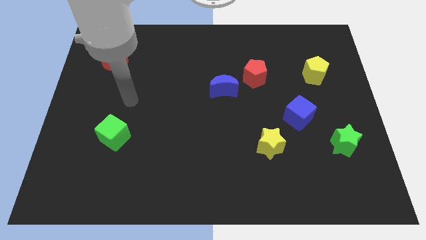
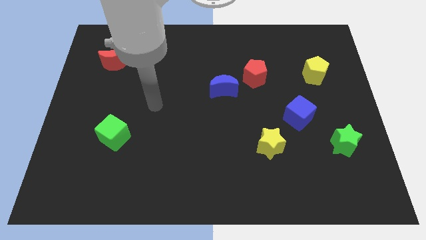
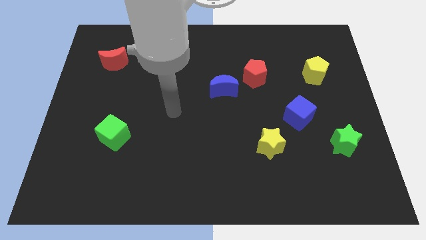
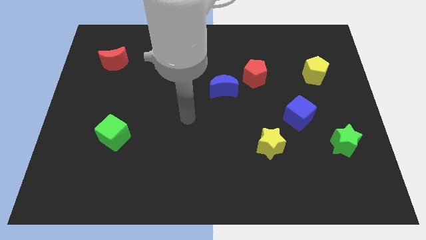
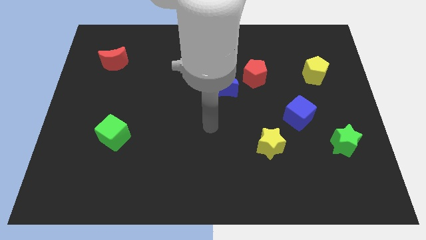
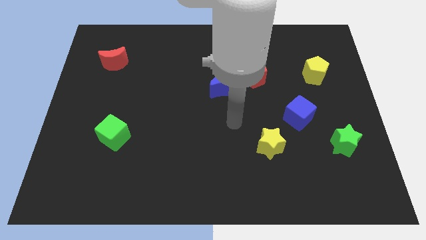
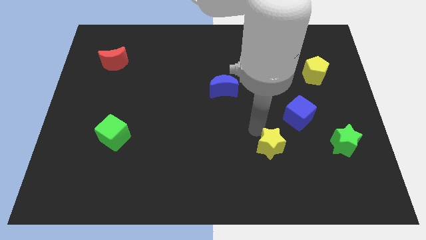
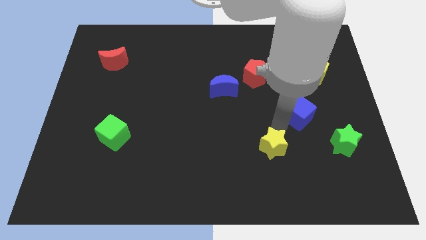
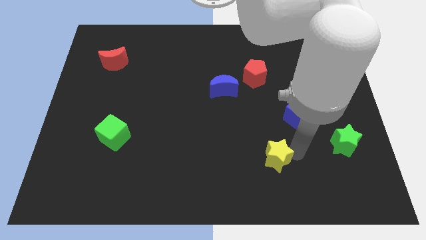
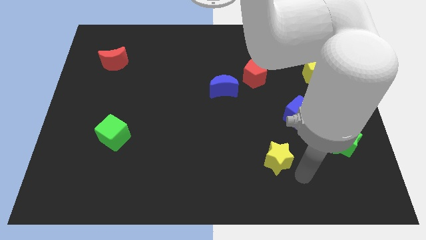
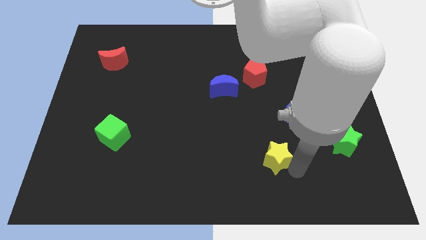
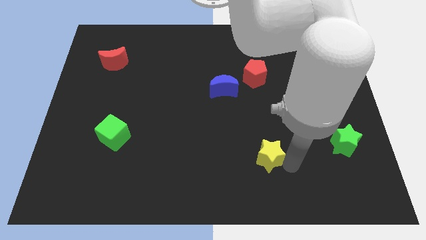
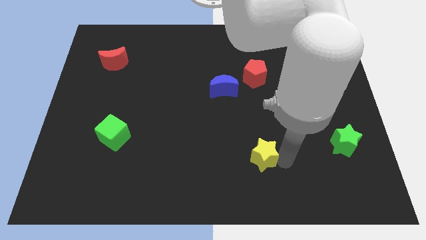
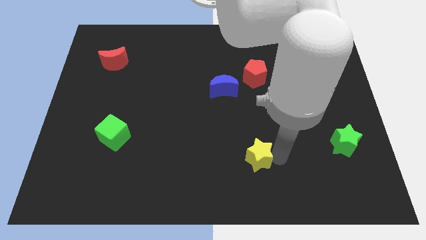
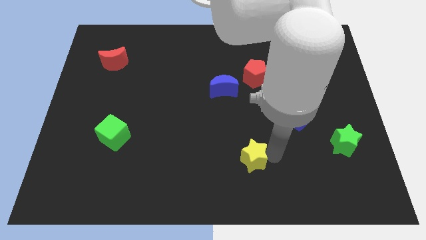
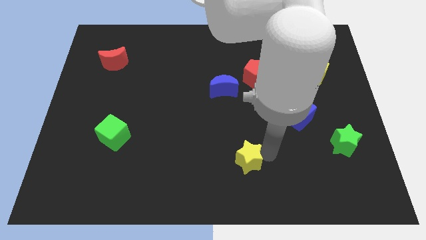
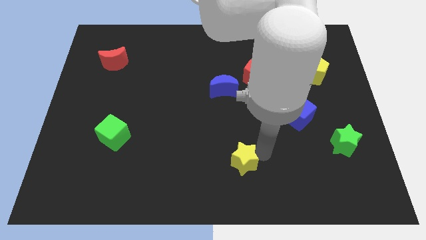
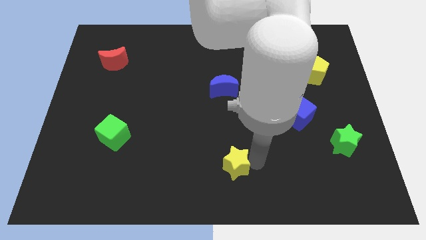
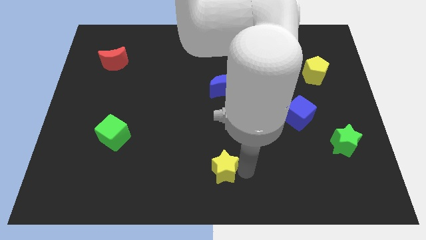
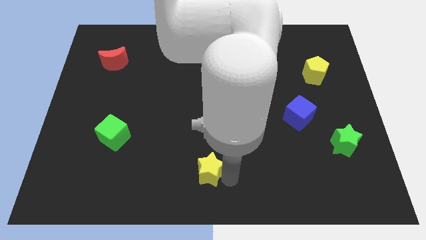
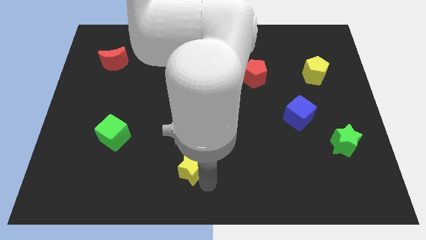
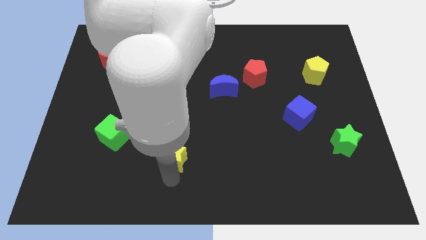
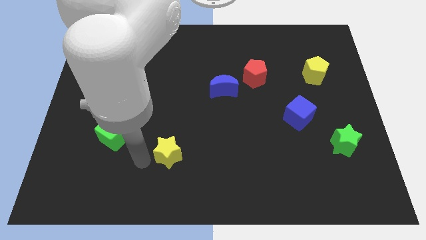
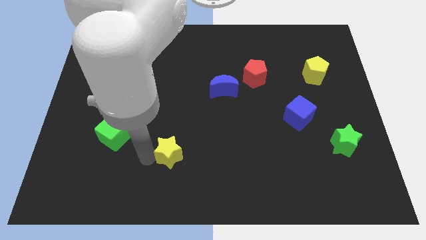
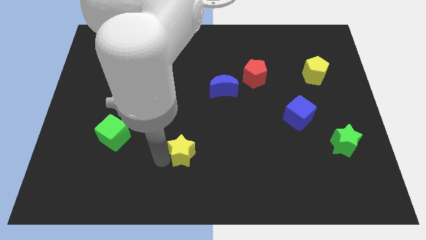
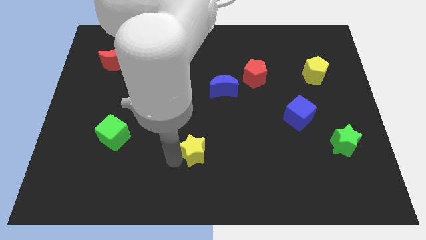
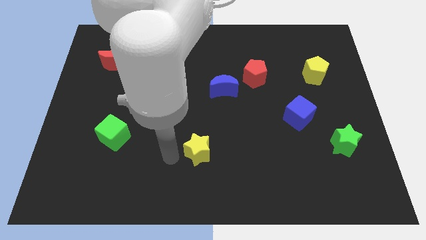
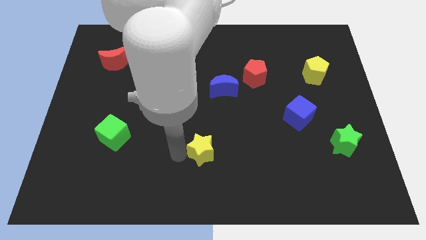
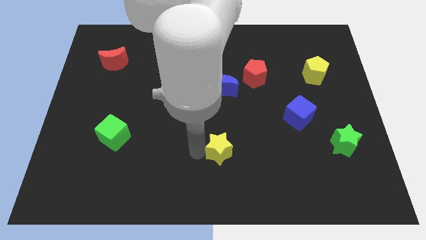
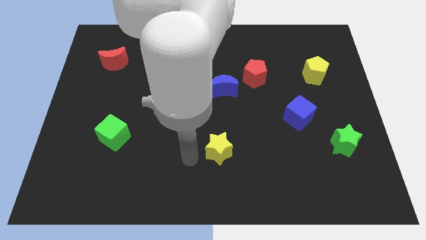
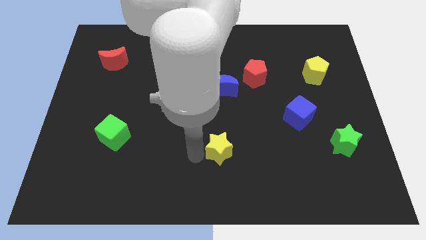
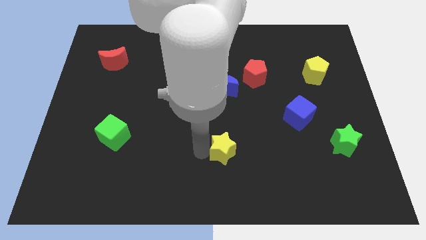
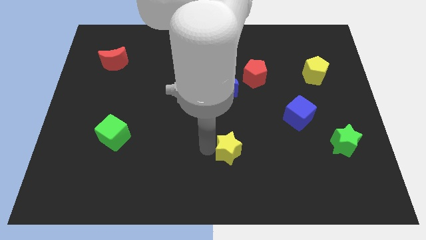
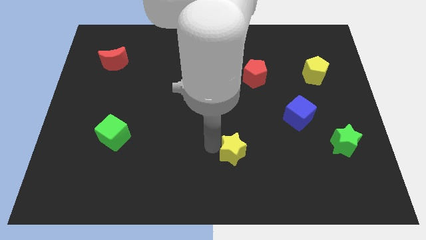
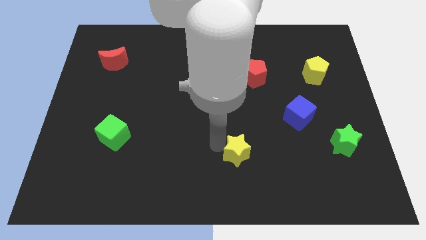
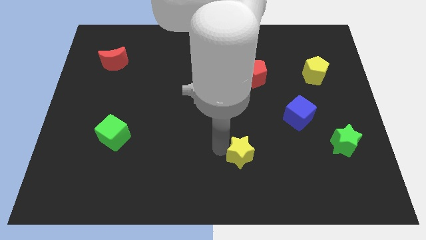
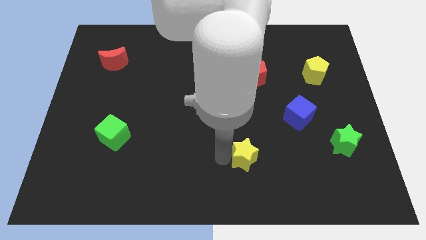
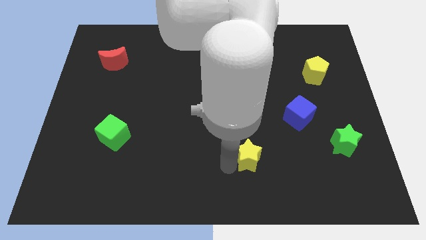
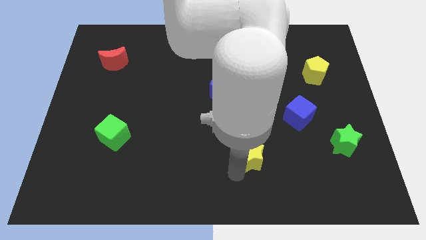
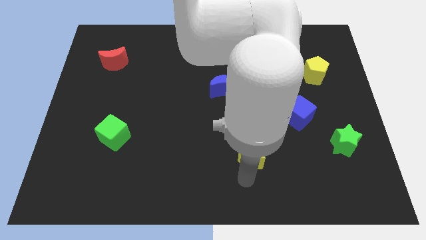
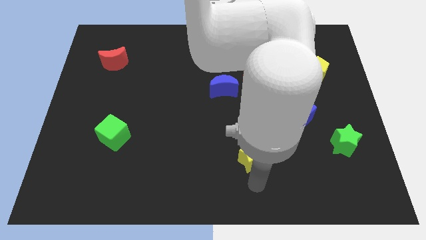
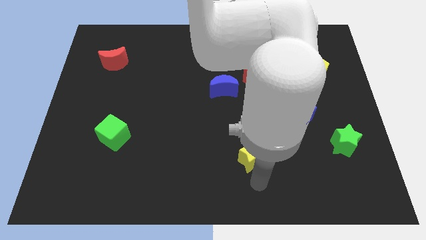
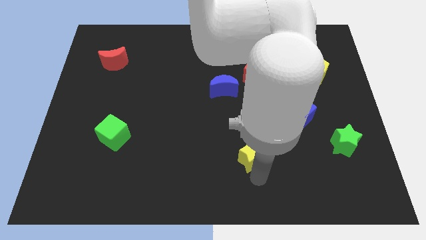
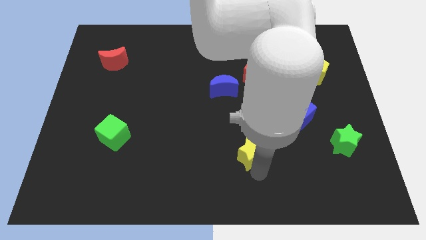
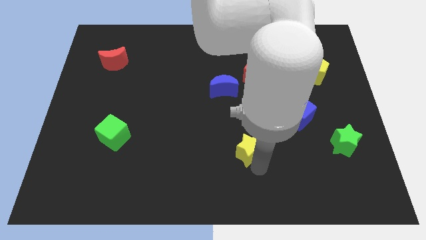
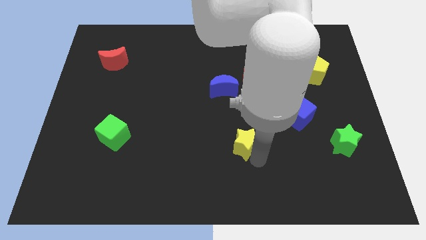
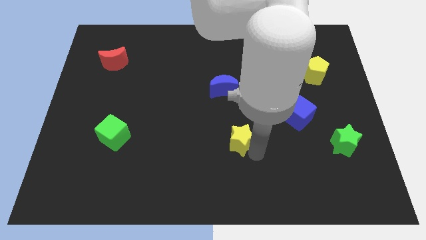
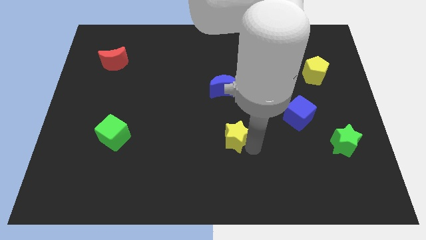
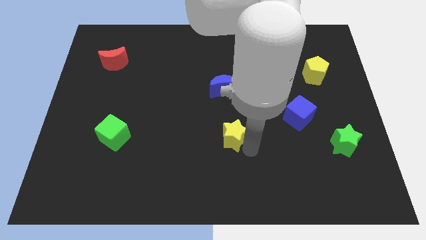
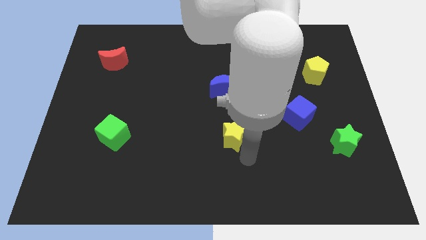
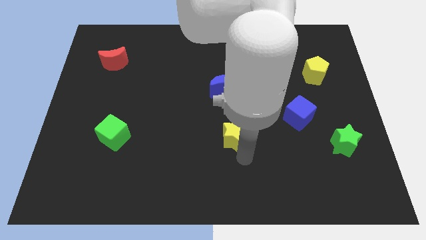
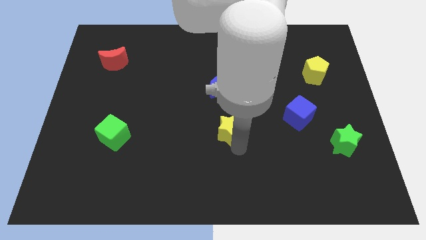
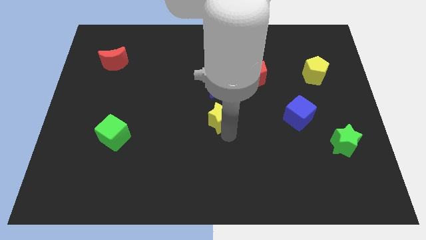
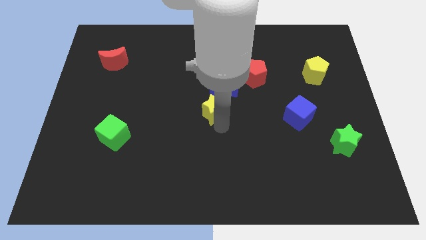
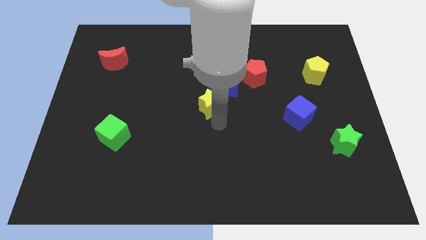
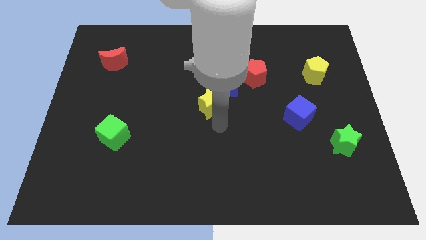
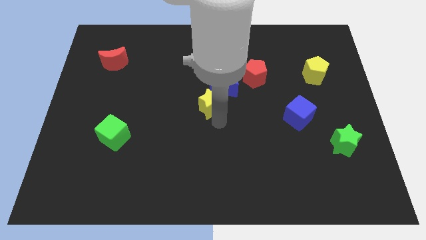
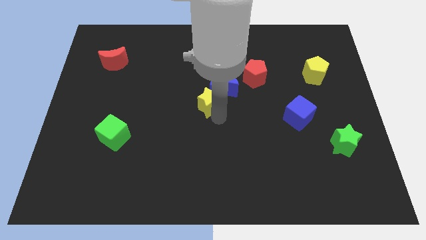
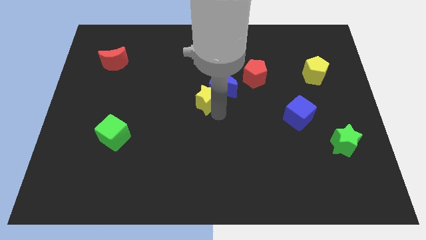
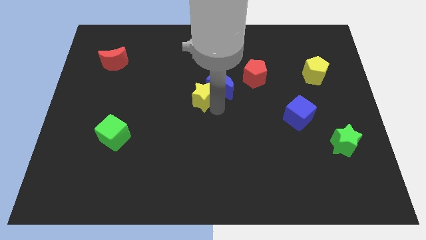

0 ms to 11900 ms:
push the yellow star up and then left

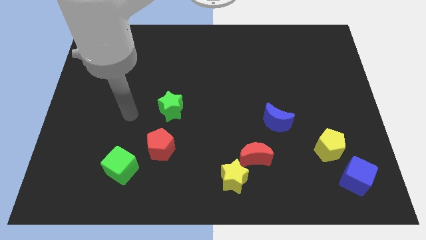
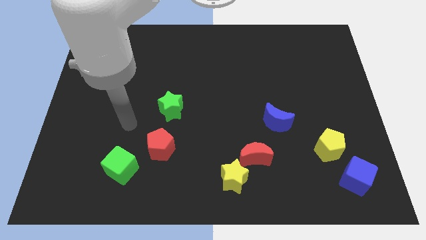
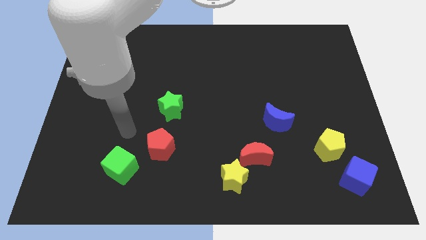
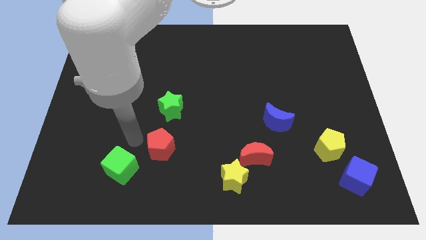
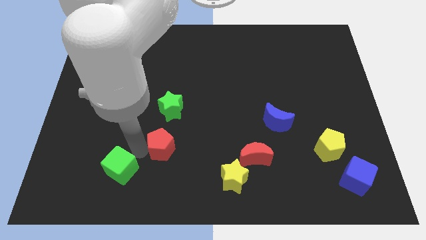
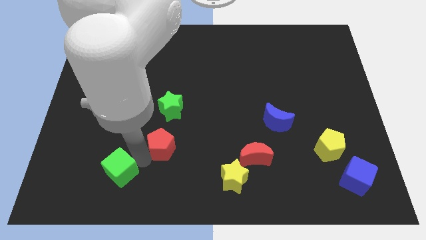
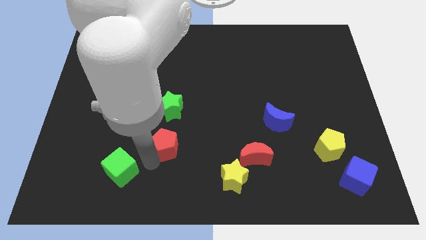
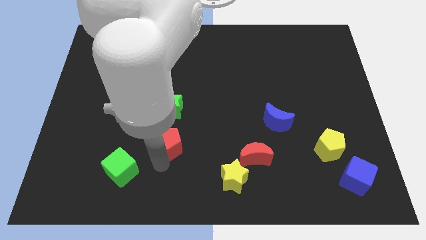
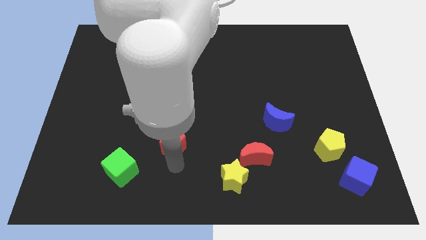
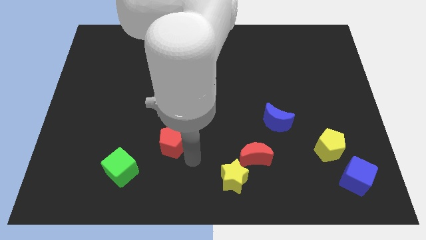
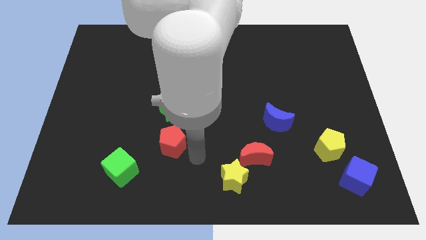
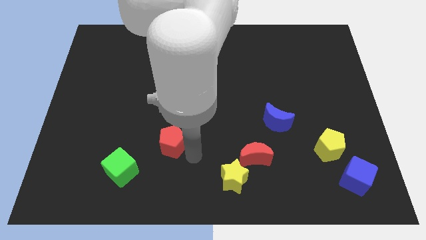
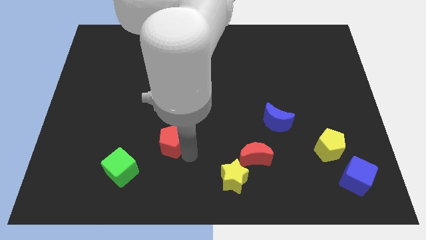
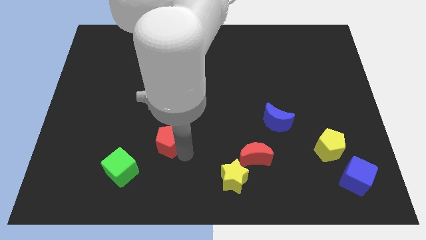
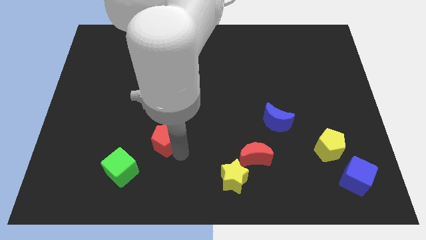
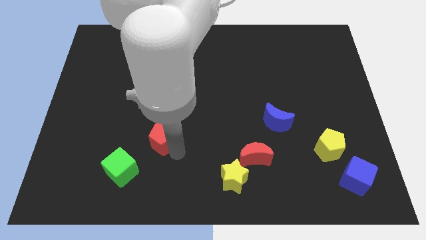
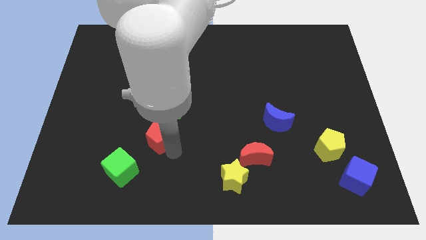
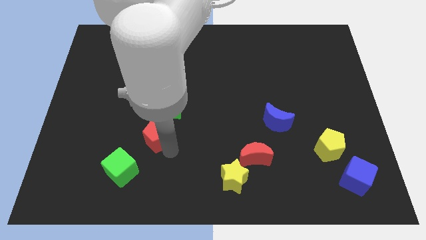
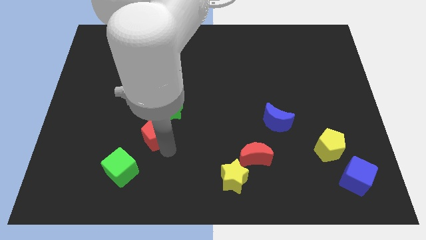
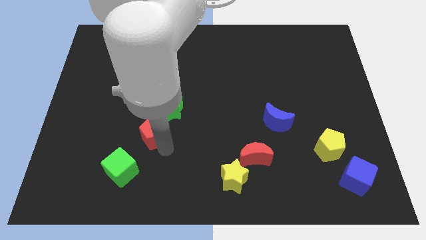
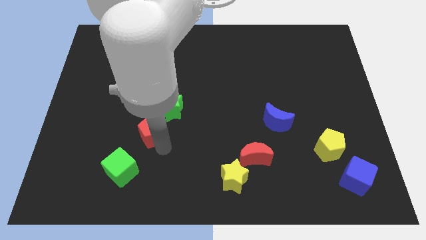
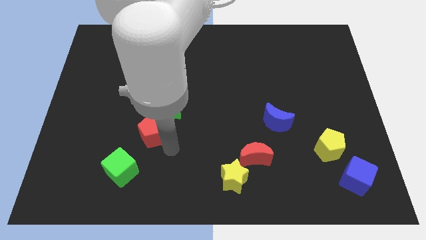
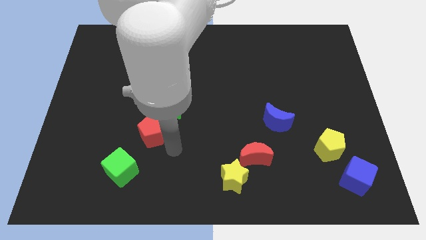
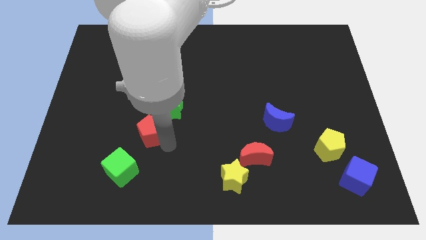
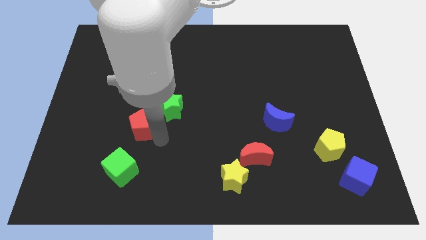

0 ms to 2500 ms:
move the red pentagon up and left somewhat
